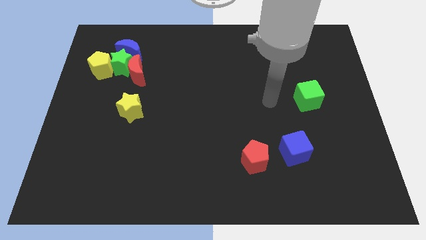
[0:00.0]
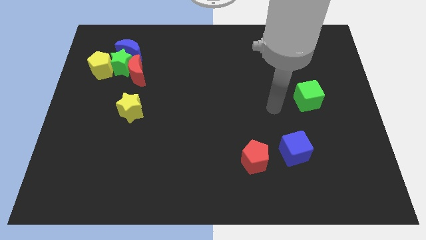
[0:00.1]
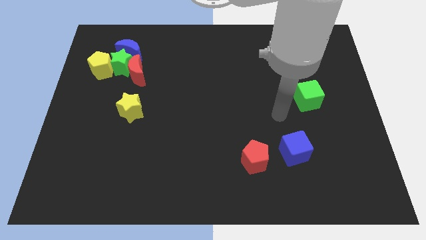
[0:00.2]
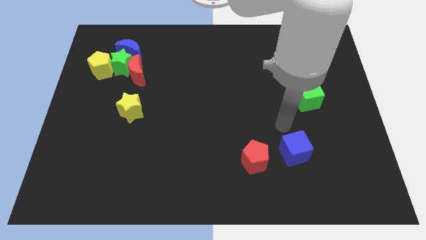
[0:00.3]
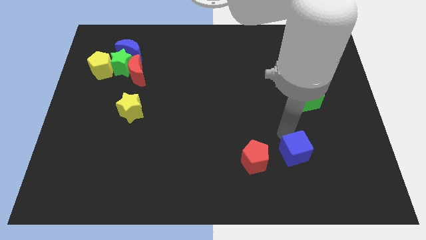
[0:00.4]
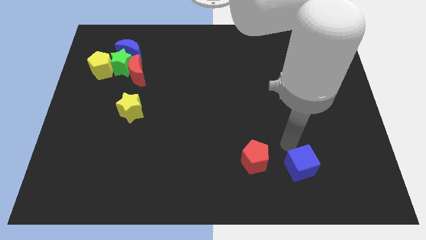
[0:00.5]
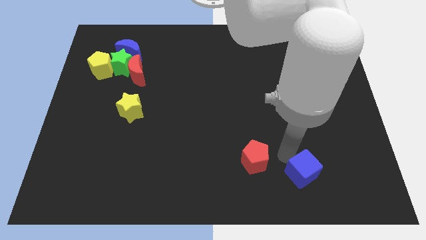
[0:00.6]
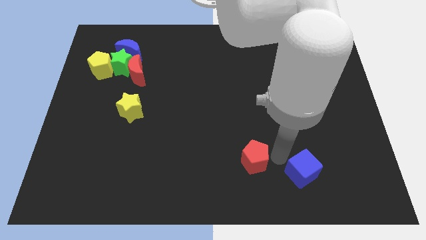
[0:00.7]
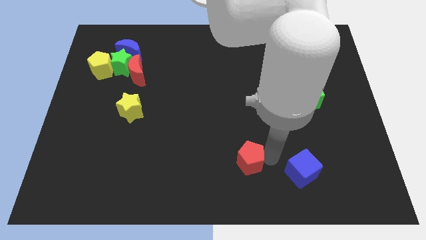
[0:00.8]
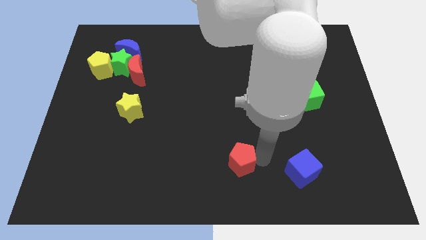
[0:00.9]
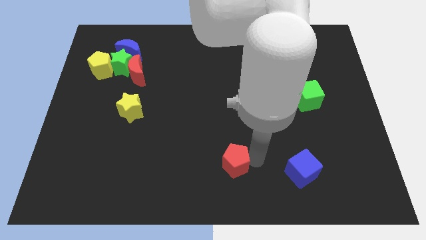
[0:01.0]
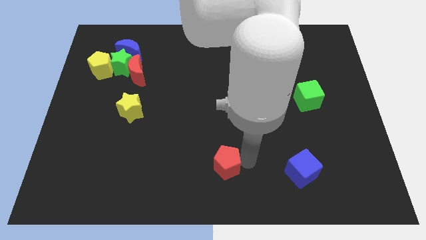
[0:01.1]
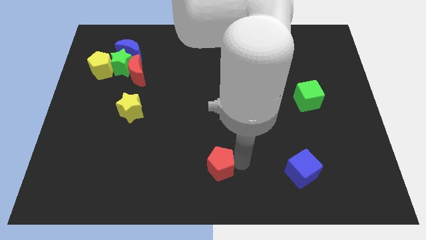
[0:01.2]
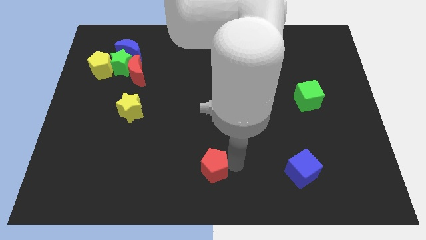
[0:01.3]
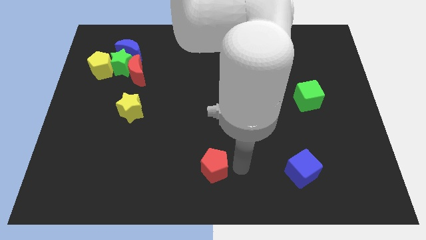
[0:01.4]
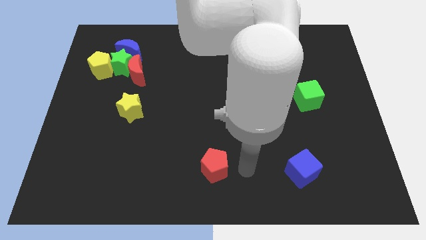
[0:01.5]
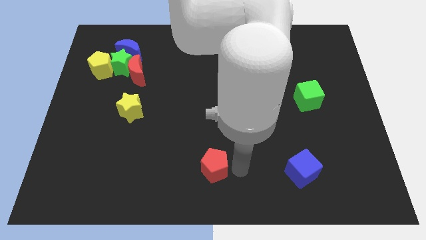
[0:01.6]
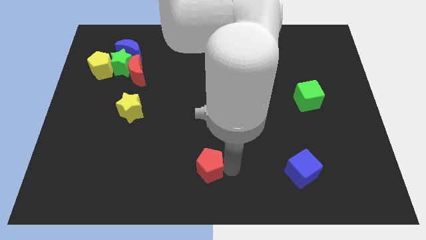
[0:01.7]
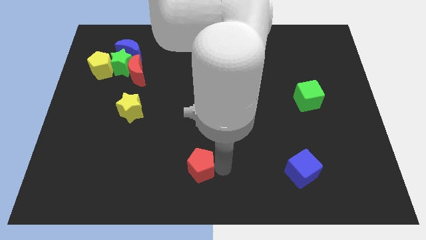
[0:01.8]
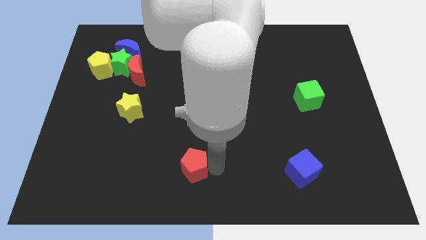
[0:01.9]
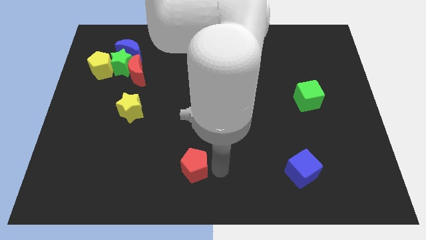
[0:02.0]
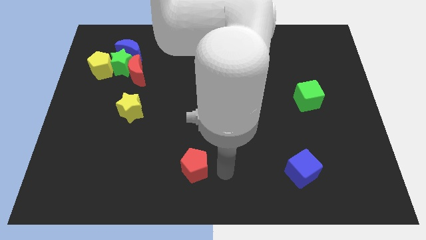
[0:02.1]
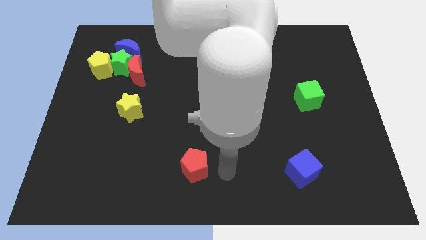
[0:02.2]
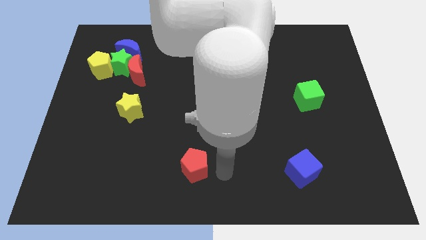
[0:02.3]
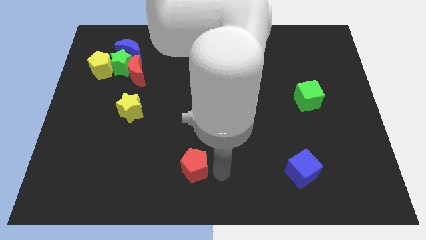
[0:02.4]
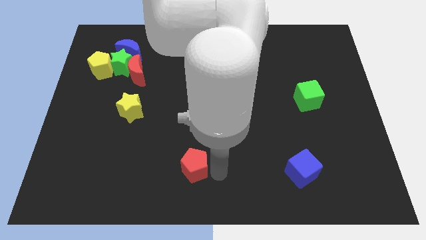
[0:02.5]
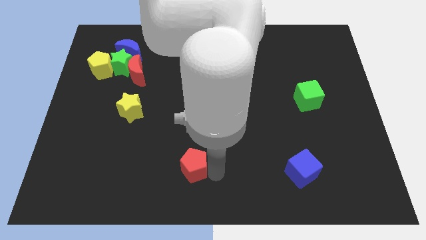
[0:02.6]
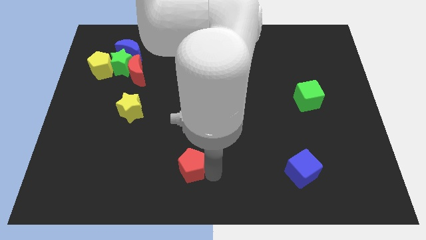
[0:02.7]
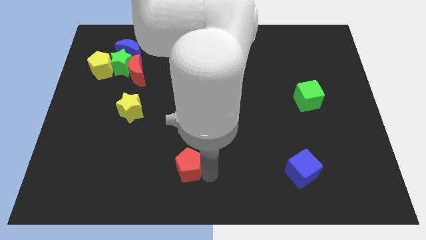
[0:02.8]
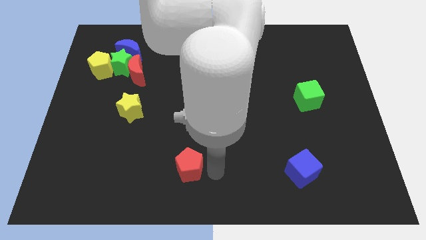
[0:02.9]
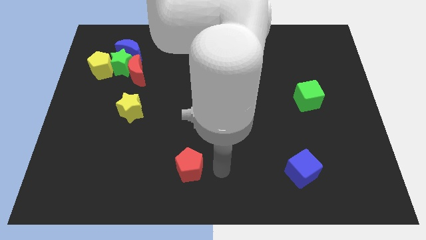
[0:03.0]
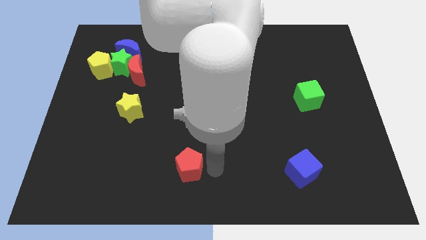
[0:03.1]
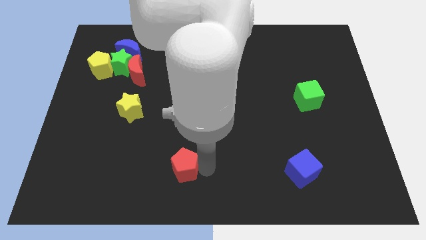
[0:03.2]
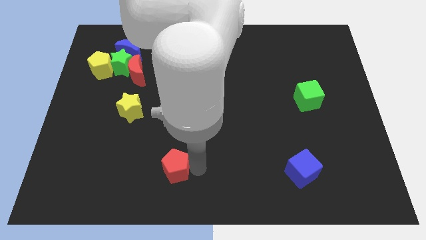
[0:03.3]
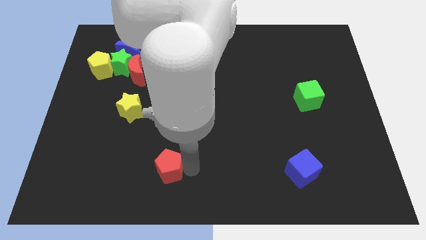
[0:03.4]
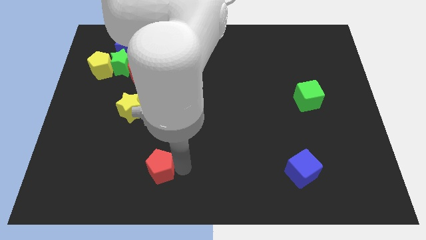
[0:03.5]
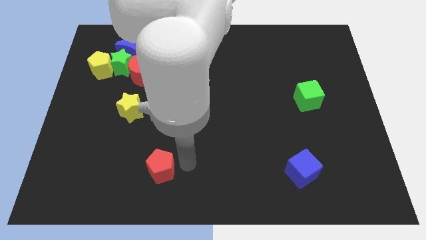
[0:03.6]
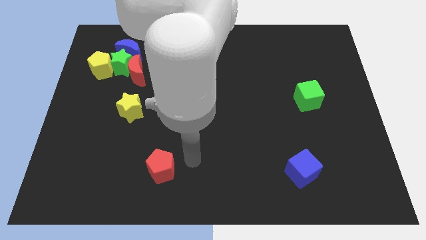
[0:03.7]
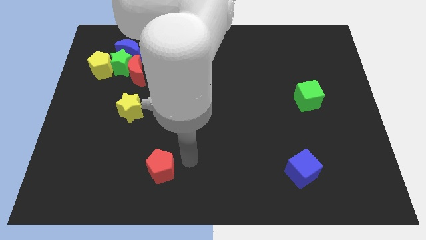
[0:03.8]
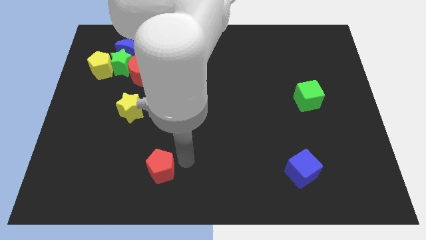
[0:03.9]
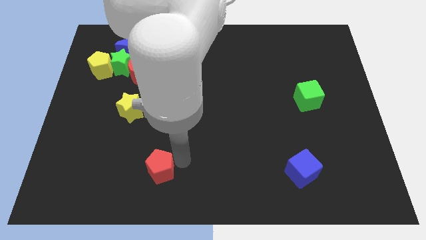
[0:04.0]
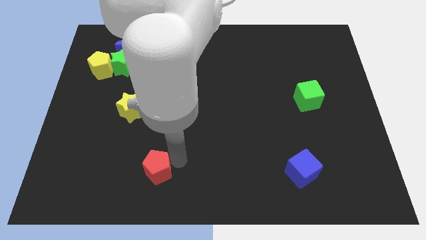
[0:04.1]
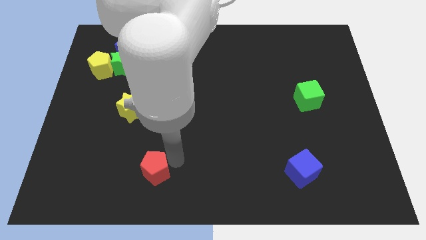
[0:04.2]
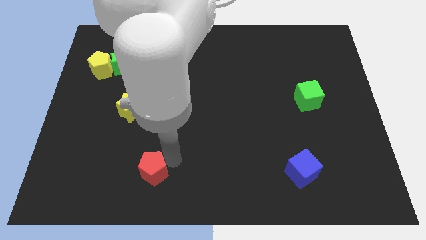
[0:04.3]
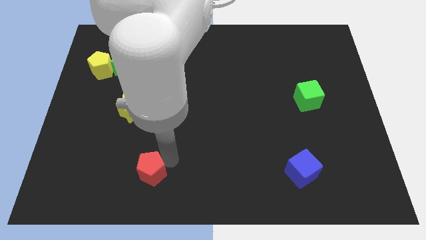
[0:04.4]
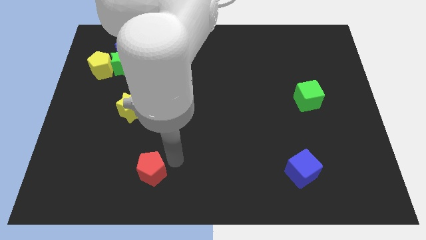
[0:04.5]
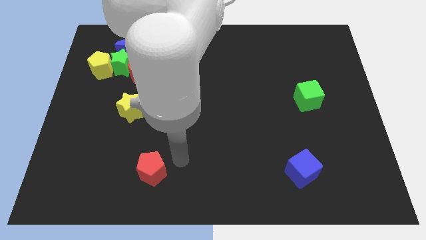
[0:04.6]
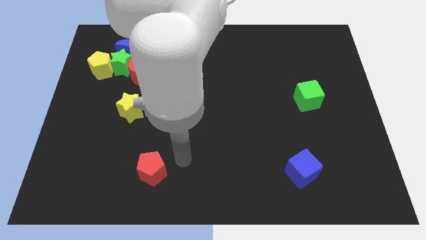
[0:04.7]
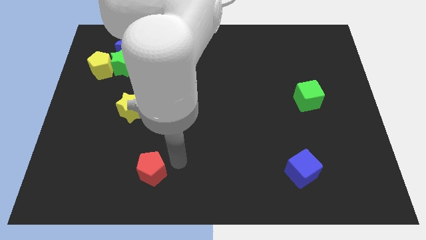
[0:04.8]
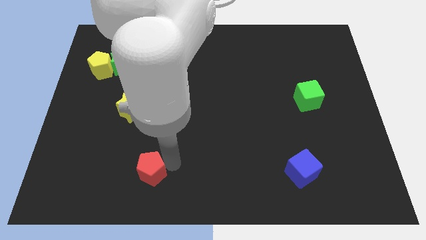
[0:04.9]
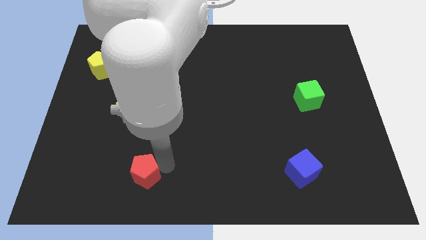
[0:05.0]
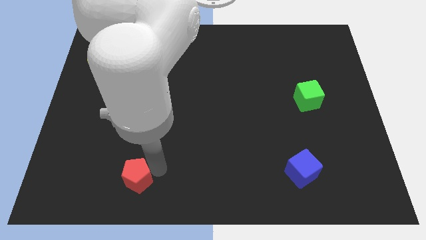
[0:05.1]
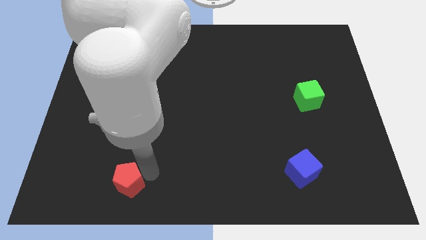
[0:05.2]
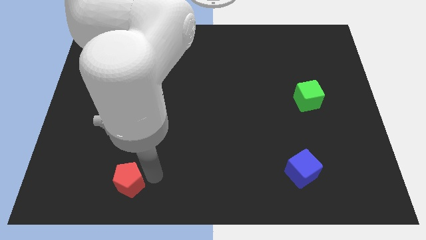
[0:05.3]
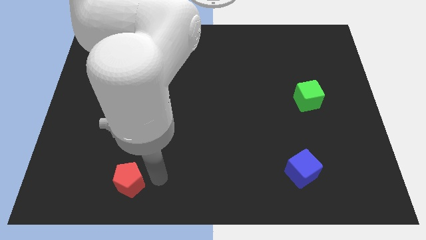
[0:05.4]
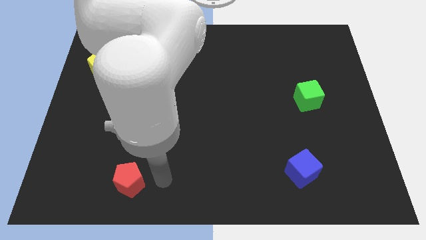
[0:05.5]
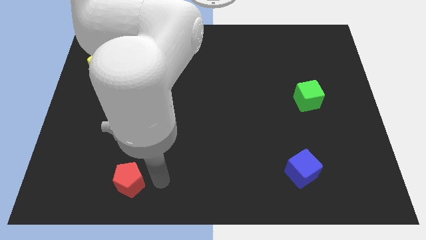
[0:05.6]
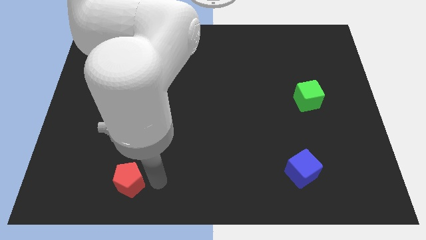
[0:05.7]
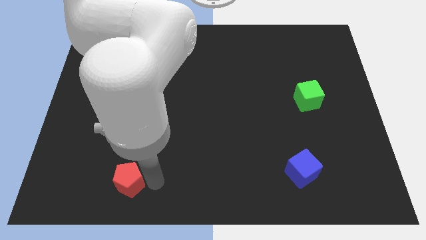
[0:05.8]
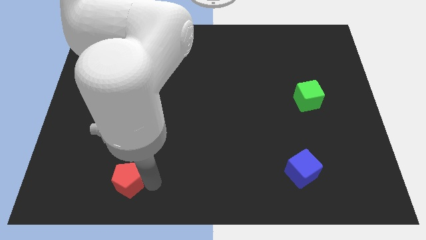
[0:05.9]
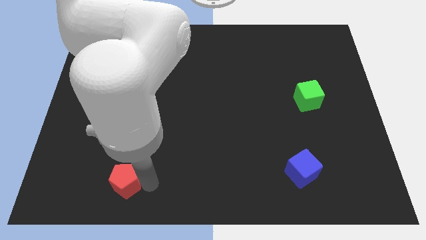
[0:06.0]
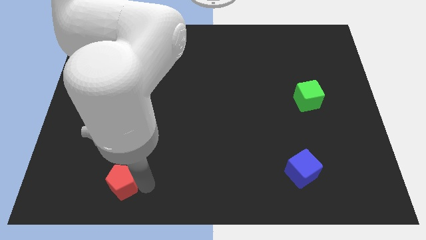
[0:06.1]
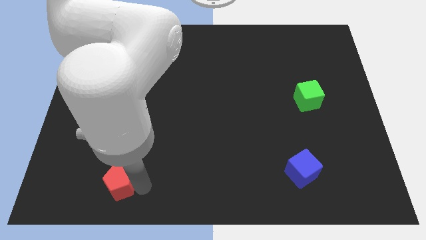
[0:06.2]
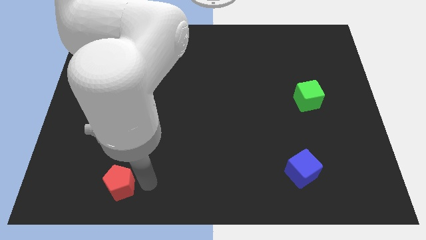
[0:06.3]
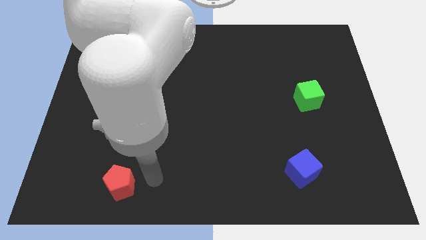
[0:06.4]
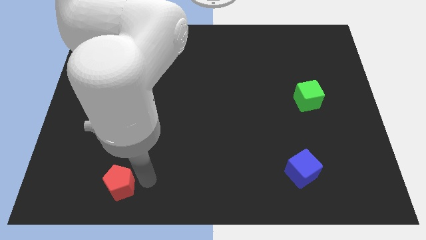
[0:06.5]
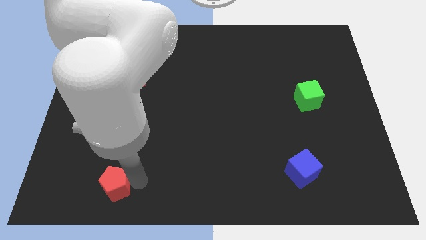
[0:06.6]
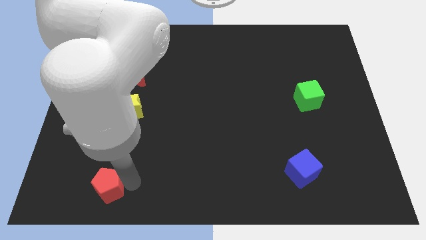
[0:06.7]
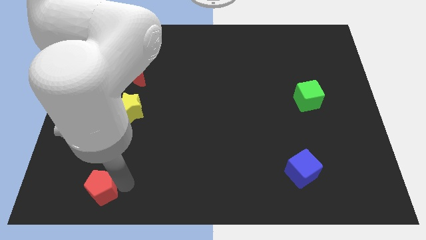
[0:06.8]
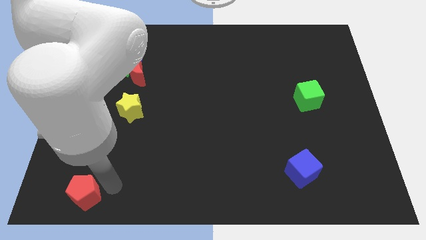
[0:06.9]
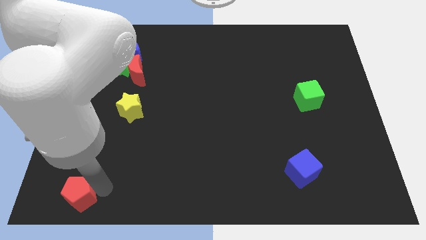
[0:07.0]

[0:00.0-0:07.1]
push the red pentagon to the bottom left corner
